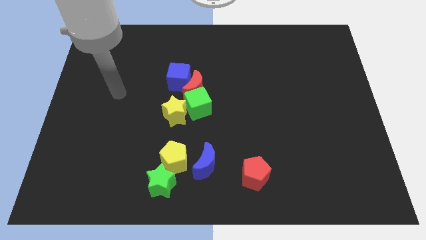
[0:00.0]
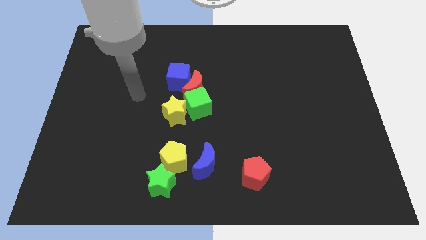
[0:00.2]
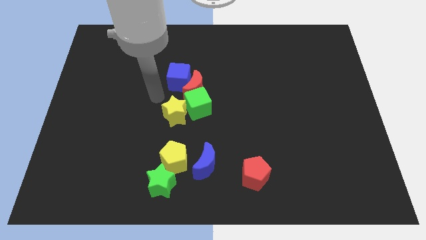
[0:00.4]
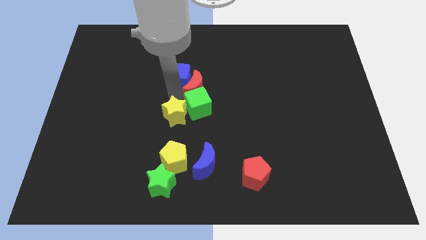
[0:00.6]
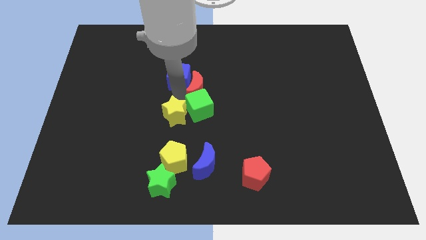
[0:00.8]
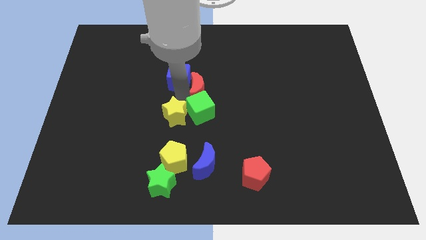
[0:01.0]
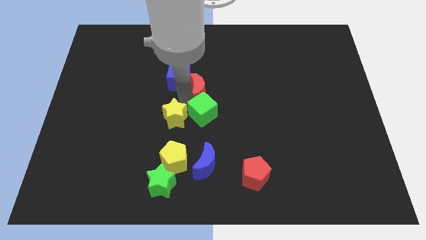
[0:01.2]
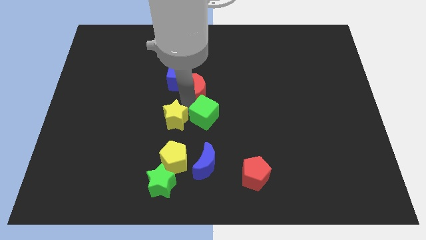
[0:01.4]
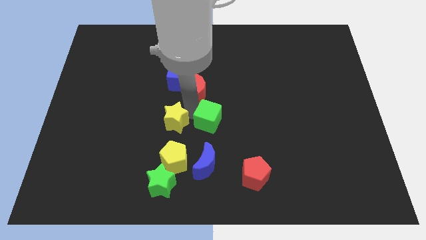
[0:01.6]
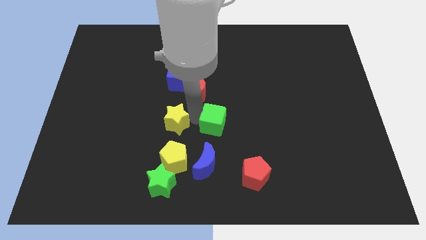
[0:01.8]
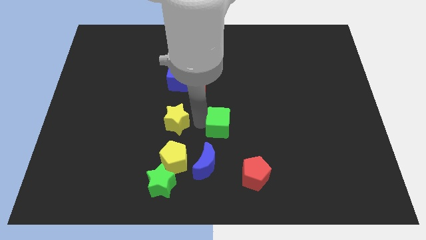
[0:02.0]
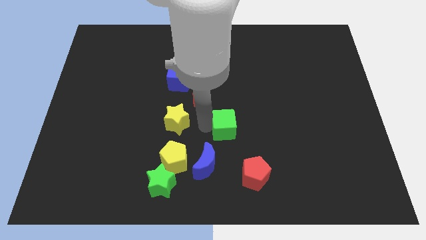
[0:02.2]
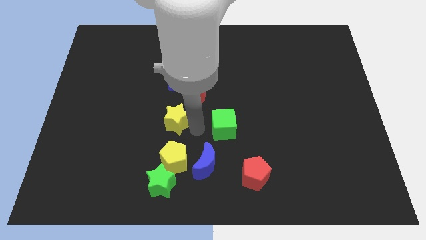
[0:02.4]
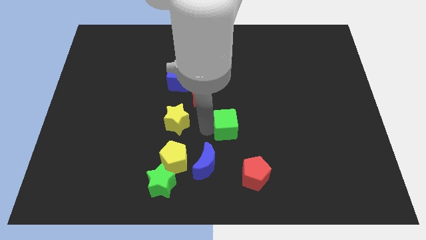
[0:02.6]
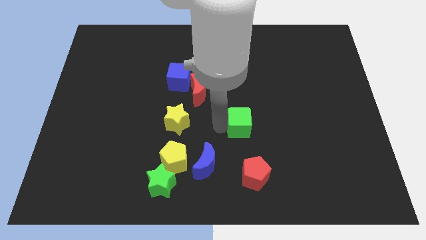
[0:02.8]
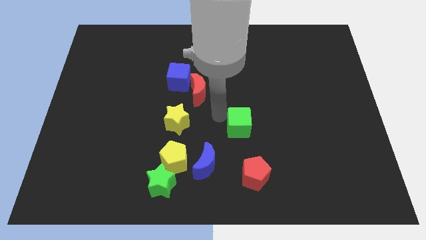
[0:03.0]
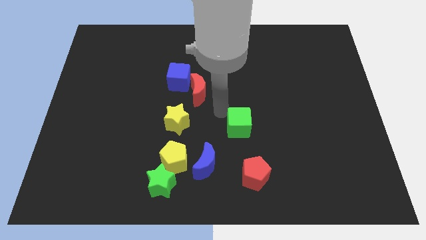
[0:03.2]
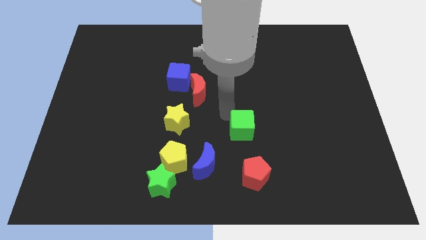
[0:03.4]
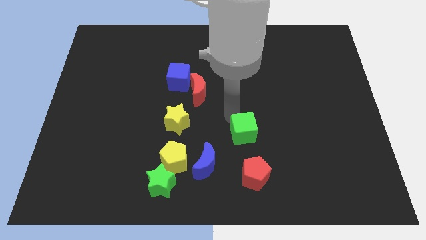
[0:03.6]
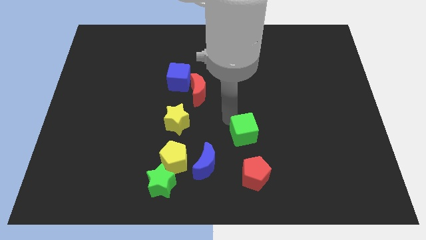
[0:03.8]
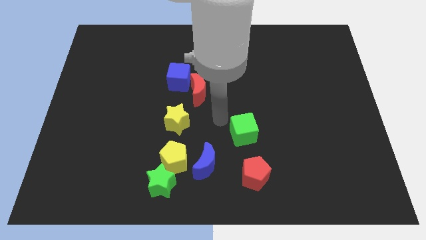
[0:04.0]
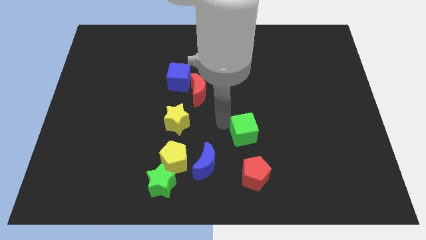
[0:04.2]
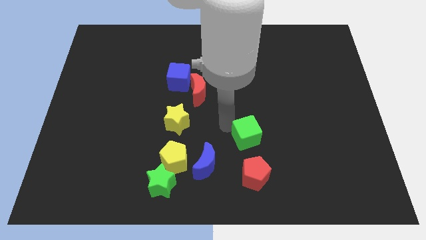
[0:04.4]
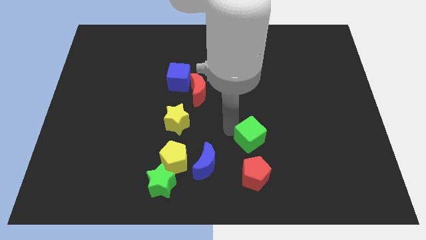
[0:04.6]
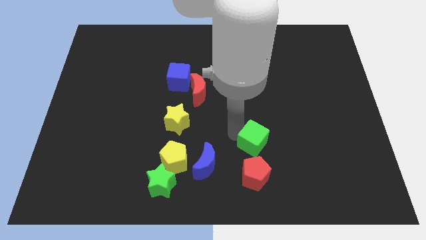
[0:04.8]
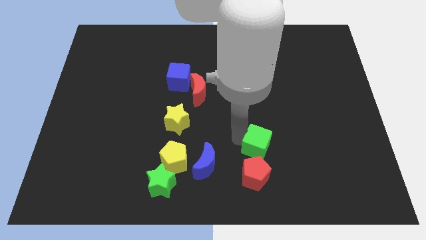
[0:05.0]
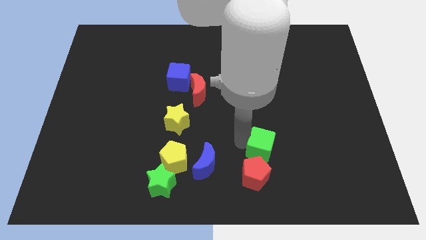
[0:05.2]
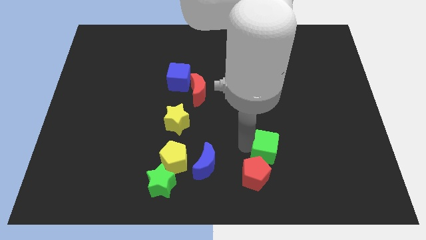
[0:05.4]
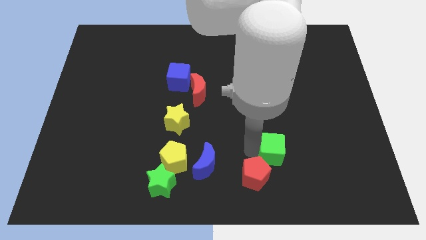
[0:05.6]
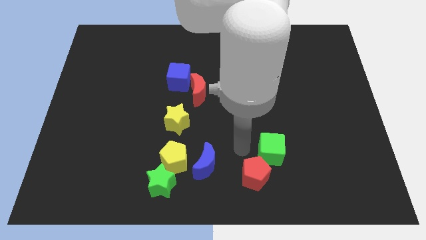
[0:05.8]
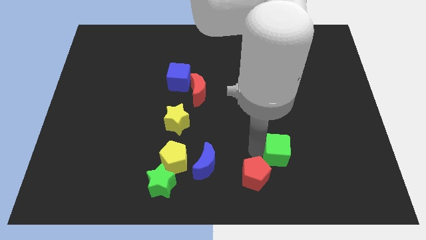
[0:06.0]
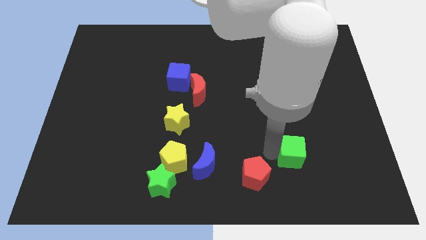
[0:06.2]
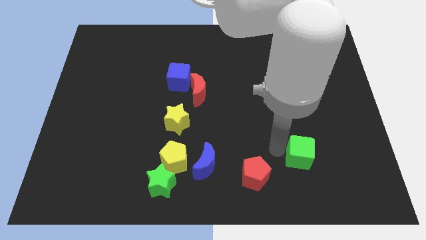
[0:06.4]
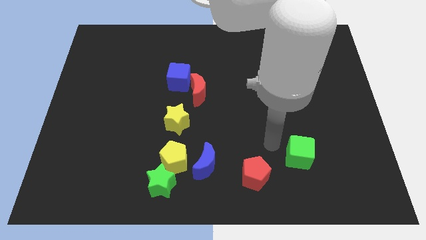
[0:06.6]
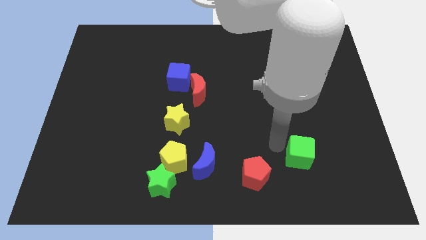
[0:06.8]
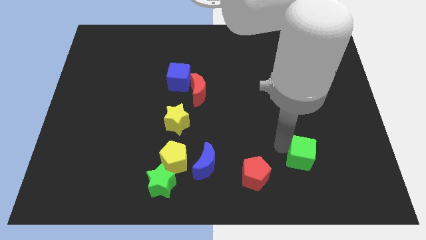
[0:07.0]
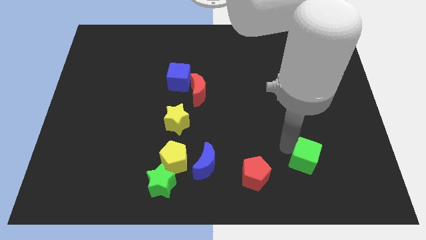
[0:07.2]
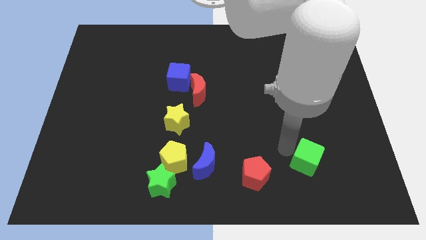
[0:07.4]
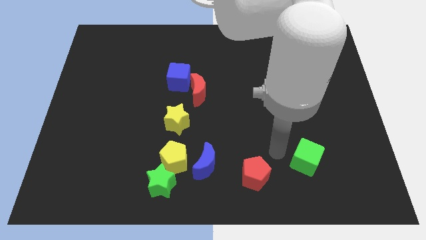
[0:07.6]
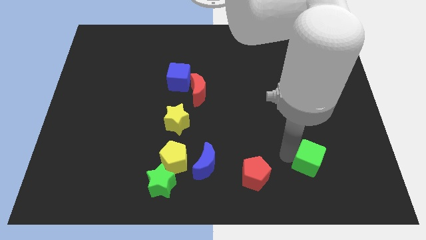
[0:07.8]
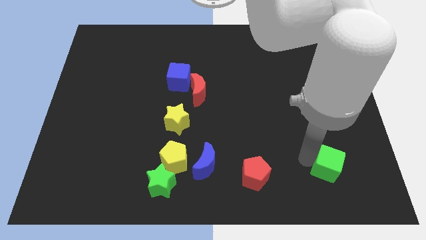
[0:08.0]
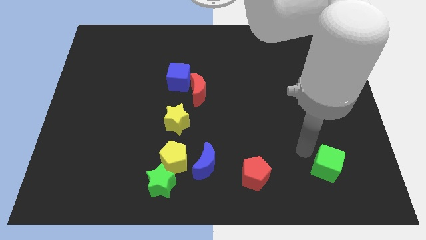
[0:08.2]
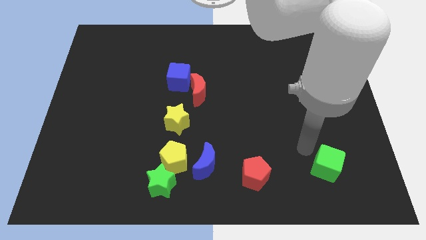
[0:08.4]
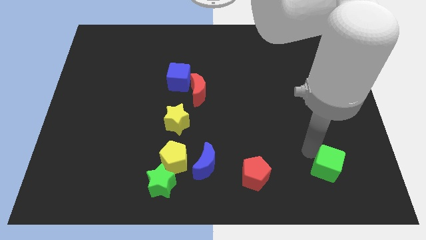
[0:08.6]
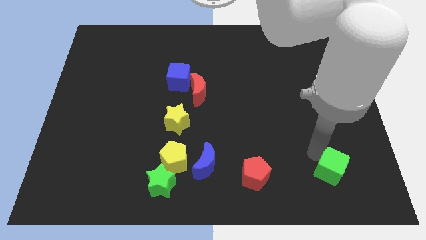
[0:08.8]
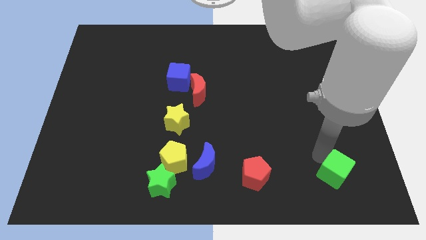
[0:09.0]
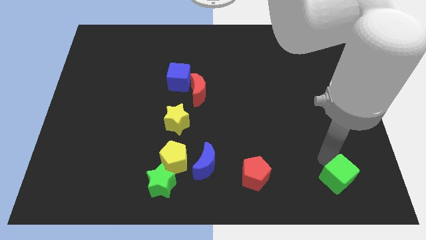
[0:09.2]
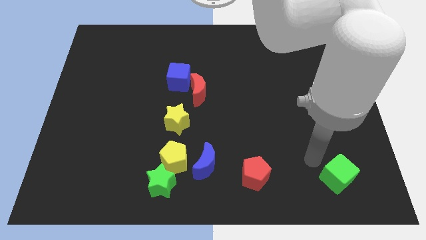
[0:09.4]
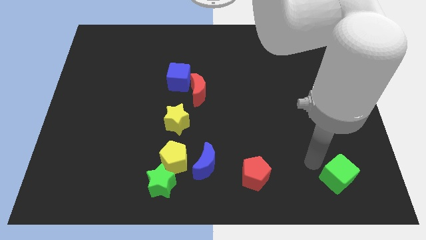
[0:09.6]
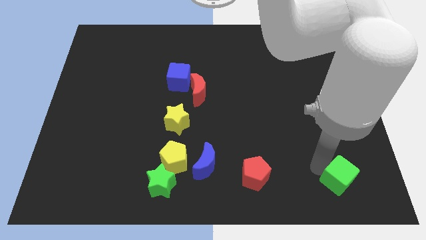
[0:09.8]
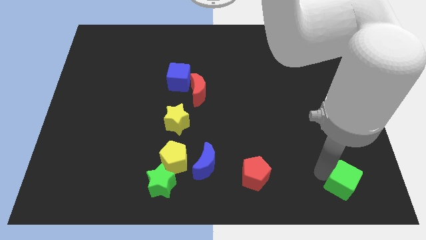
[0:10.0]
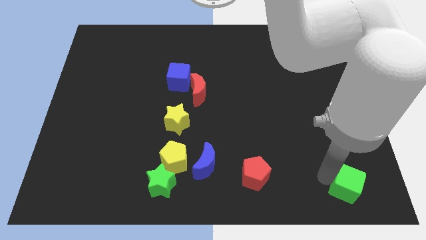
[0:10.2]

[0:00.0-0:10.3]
slide the green cube to the bottom right corner

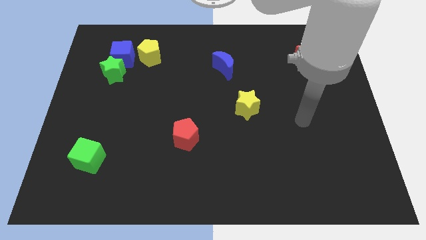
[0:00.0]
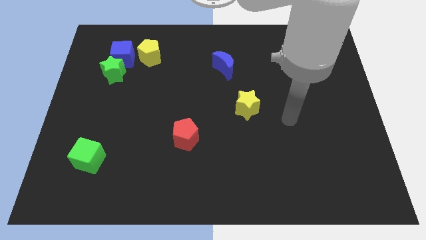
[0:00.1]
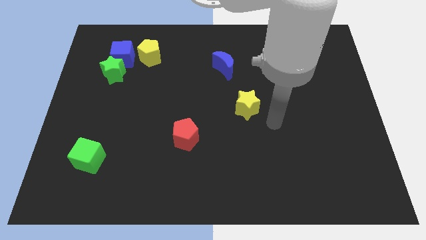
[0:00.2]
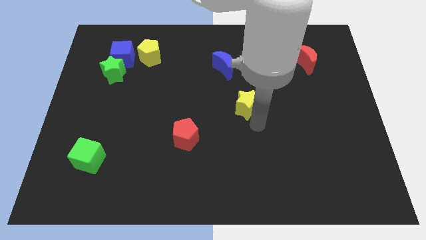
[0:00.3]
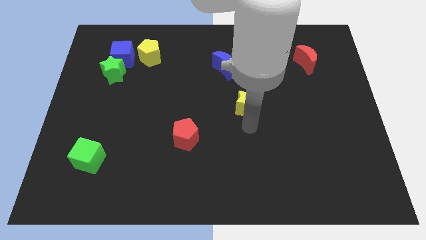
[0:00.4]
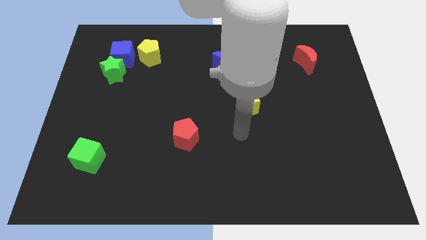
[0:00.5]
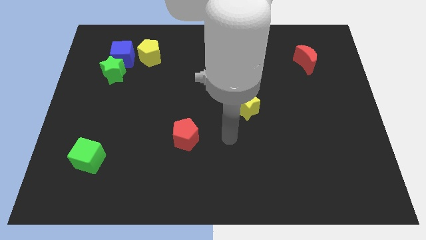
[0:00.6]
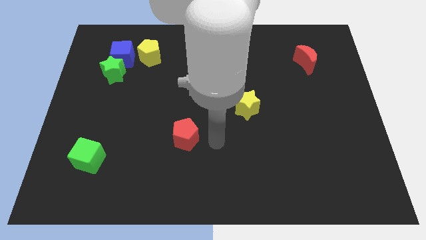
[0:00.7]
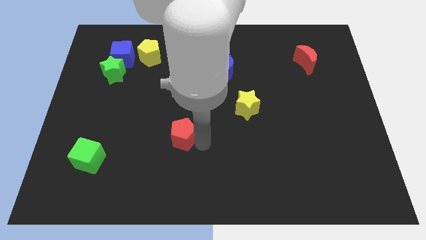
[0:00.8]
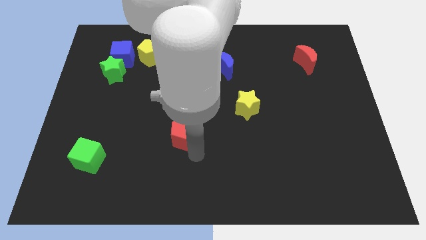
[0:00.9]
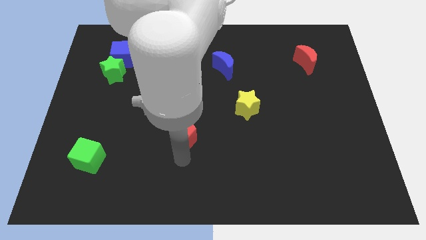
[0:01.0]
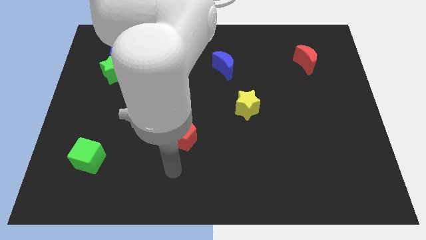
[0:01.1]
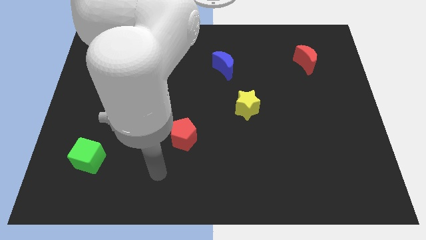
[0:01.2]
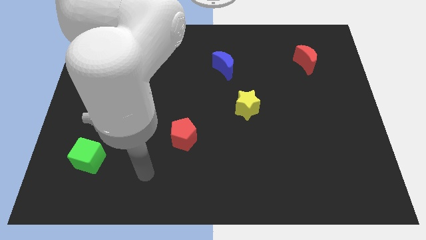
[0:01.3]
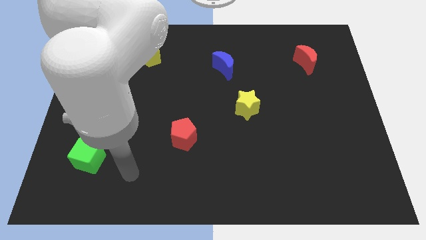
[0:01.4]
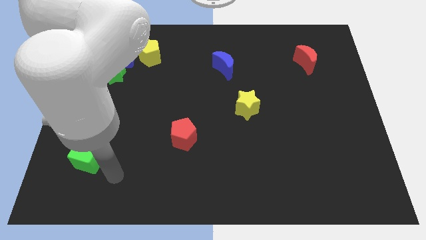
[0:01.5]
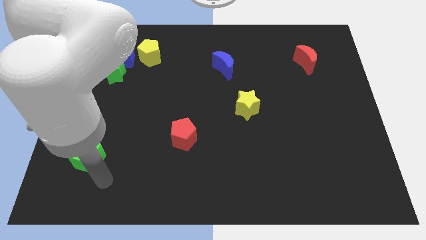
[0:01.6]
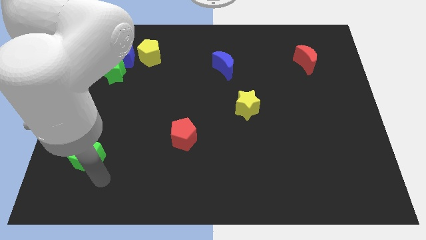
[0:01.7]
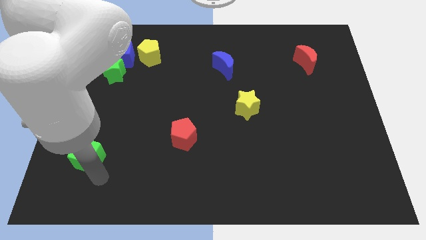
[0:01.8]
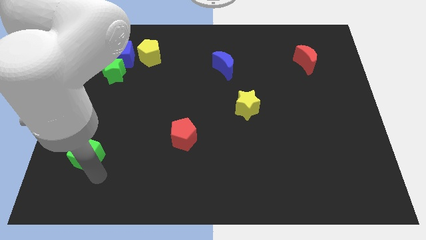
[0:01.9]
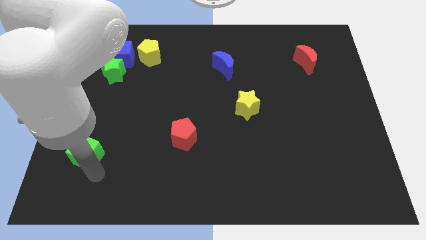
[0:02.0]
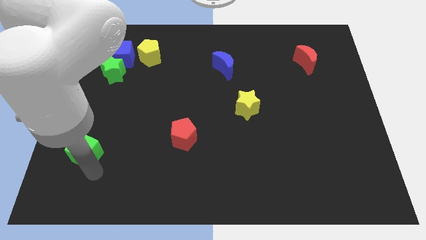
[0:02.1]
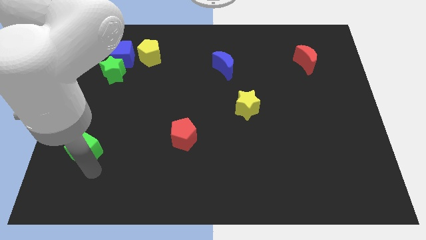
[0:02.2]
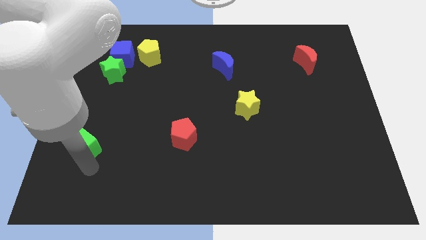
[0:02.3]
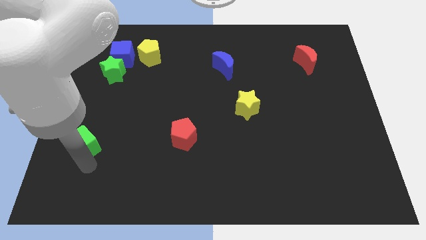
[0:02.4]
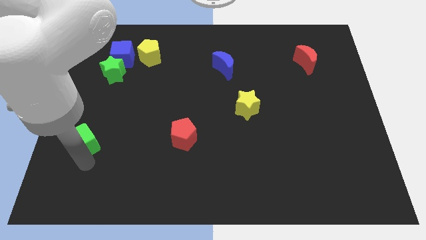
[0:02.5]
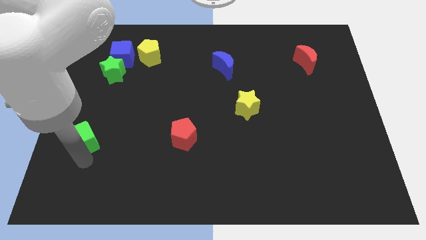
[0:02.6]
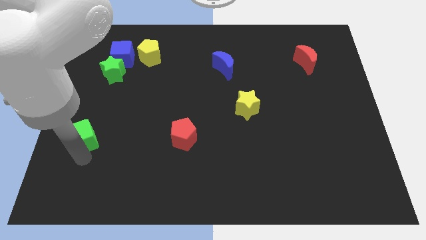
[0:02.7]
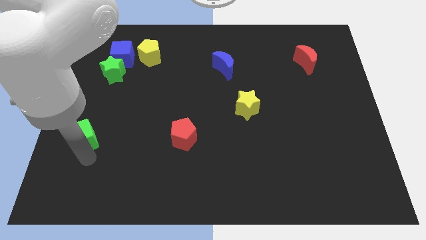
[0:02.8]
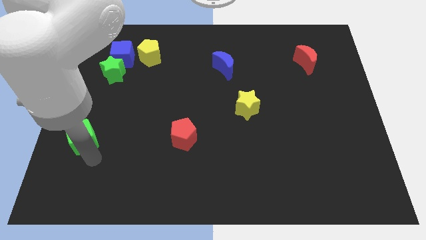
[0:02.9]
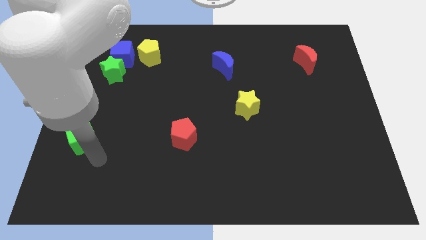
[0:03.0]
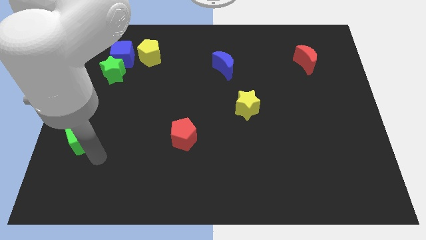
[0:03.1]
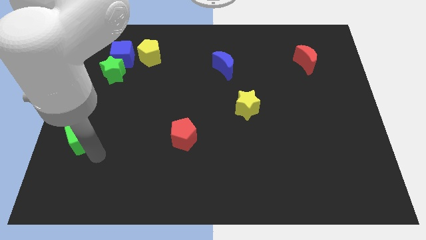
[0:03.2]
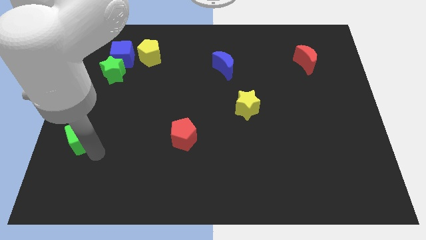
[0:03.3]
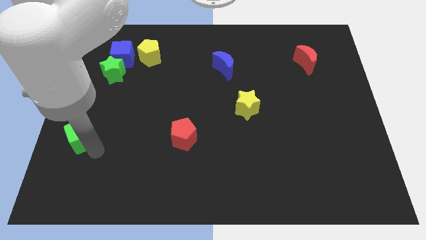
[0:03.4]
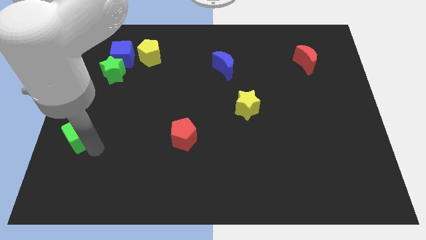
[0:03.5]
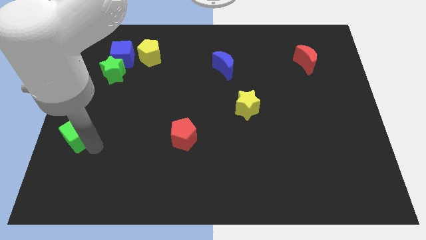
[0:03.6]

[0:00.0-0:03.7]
put the green cube to the left side
